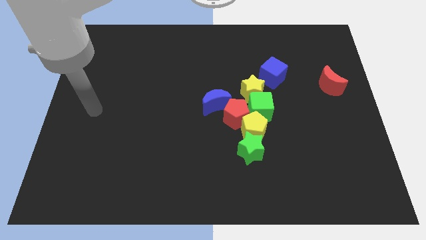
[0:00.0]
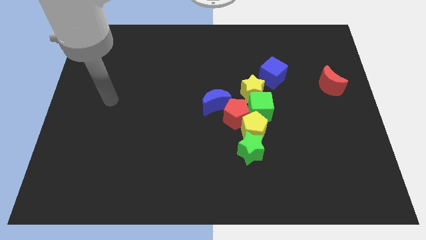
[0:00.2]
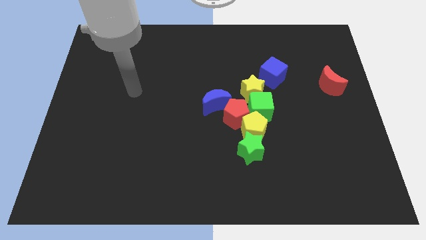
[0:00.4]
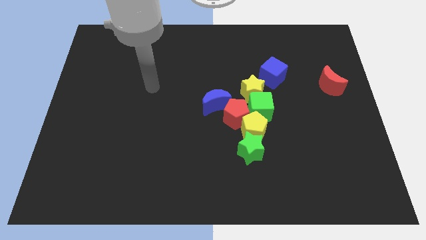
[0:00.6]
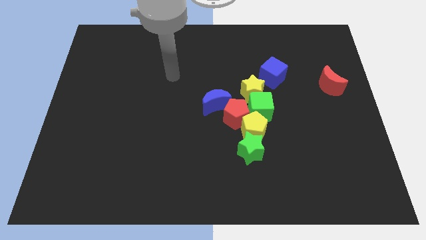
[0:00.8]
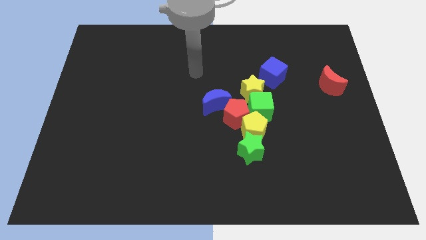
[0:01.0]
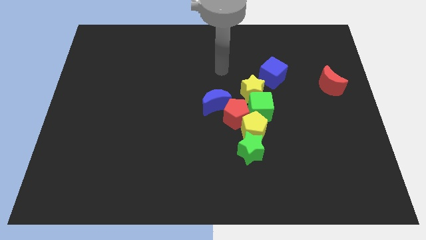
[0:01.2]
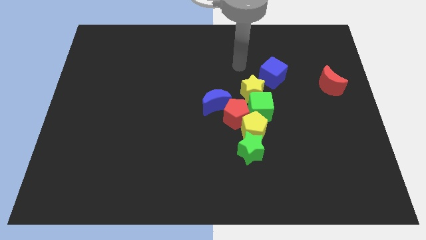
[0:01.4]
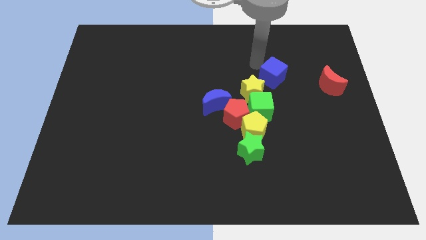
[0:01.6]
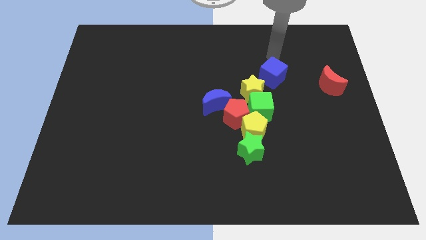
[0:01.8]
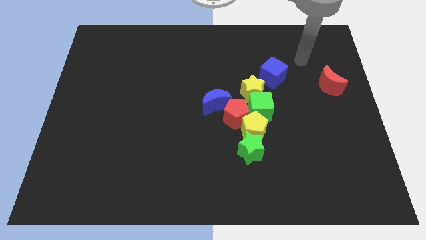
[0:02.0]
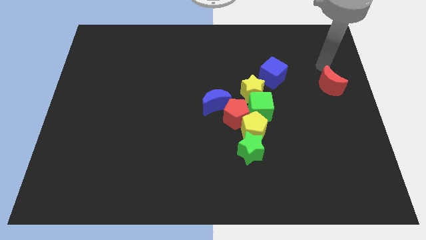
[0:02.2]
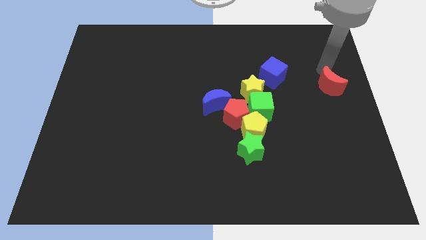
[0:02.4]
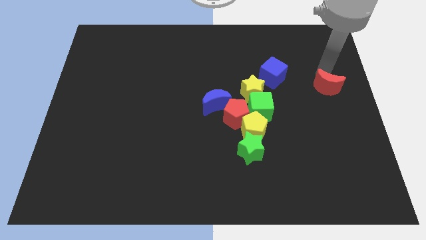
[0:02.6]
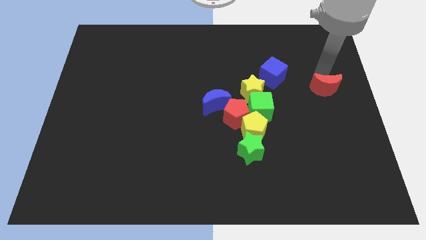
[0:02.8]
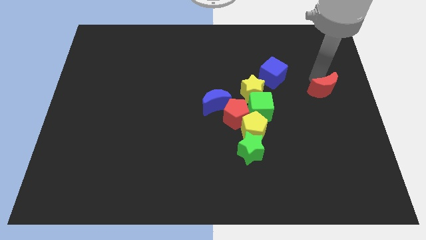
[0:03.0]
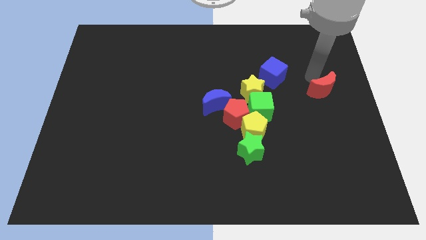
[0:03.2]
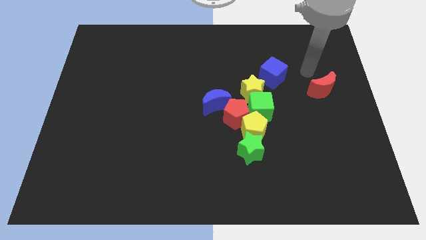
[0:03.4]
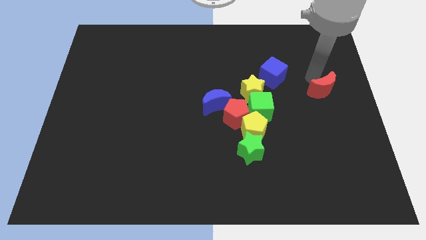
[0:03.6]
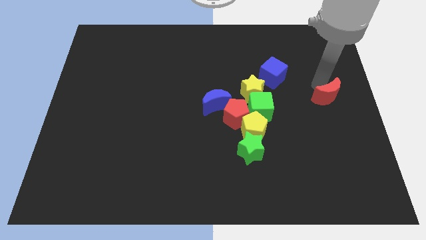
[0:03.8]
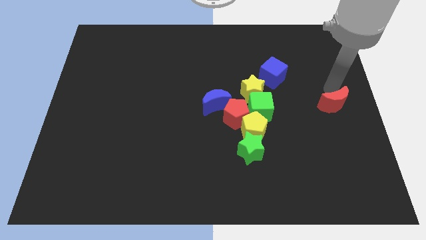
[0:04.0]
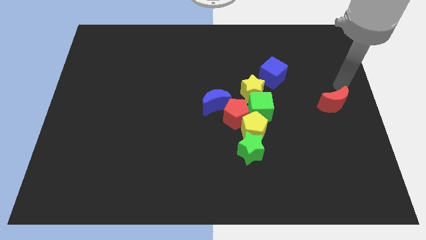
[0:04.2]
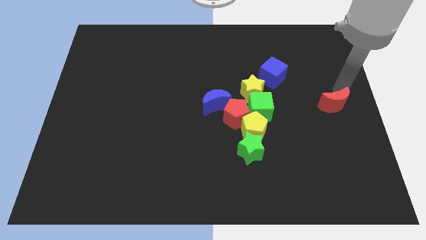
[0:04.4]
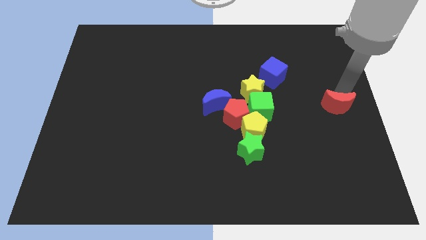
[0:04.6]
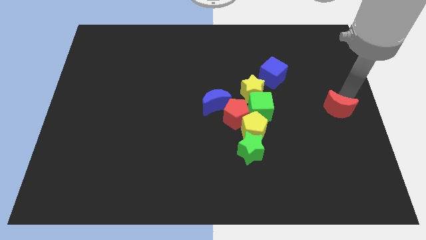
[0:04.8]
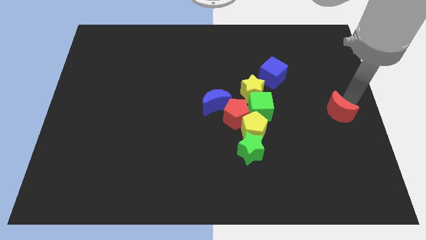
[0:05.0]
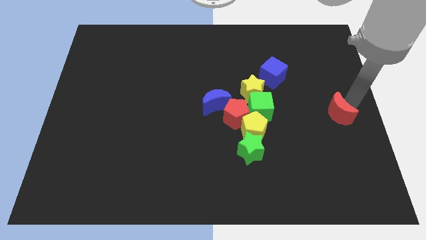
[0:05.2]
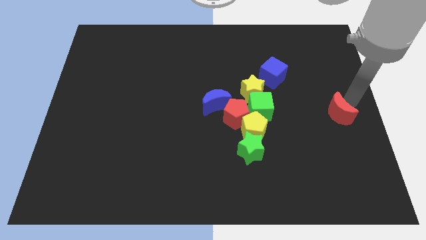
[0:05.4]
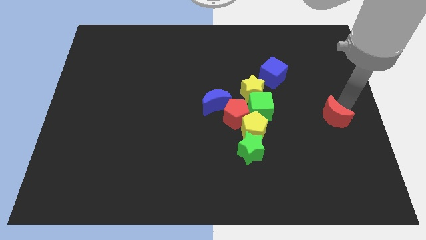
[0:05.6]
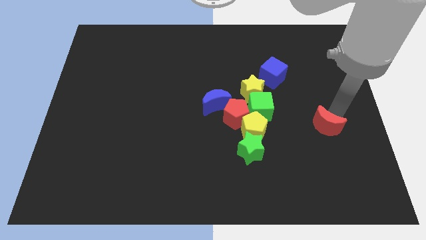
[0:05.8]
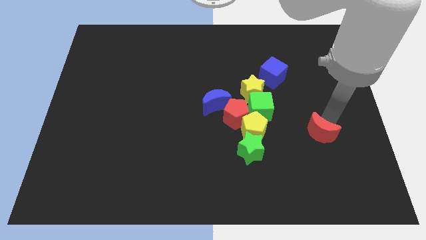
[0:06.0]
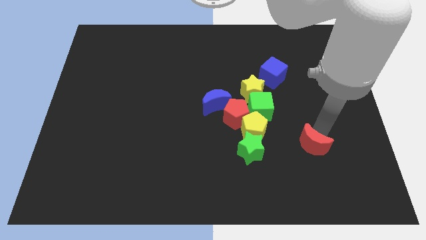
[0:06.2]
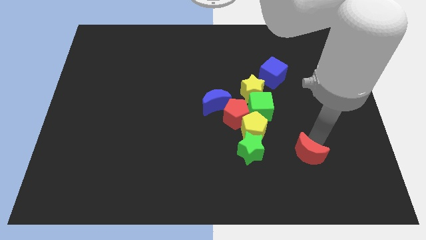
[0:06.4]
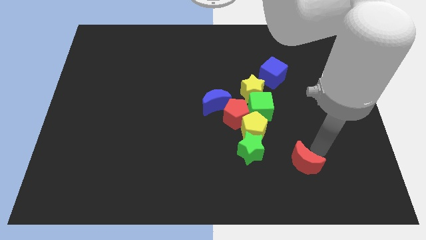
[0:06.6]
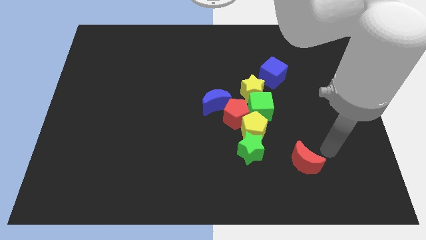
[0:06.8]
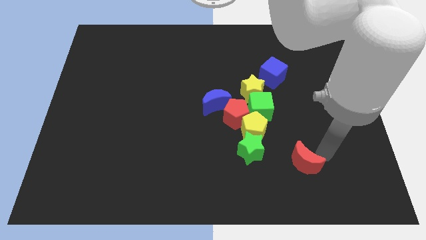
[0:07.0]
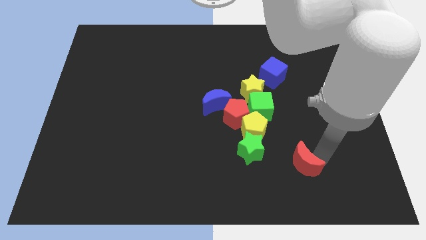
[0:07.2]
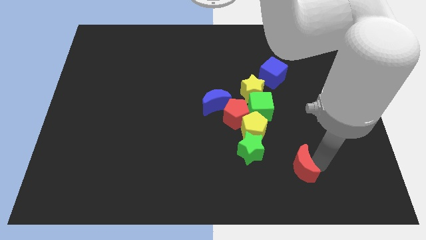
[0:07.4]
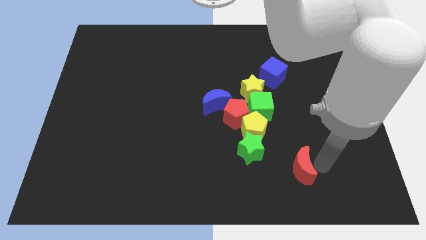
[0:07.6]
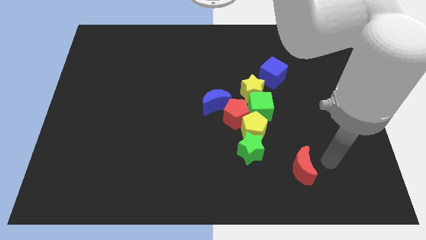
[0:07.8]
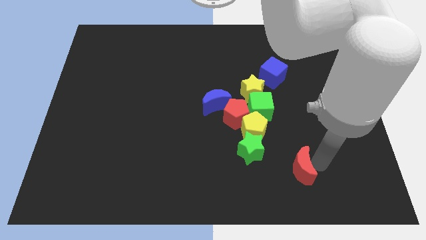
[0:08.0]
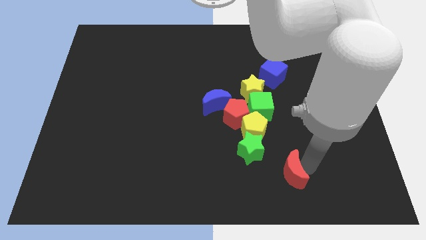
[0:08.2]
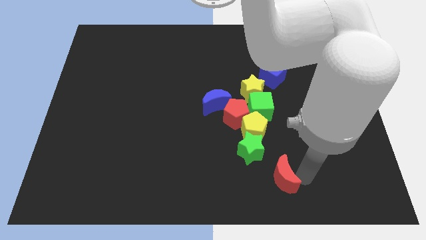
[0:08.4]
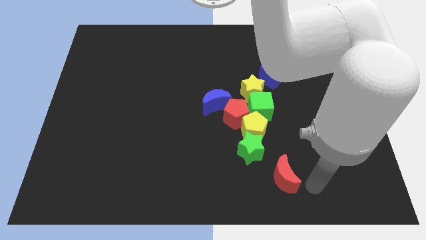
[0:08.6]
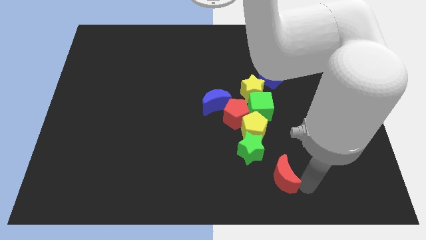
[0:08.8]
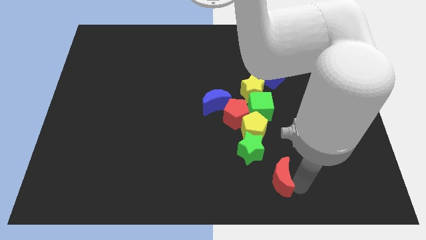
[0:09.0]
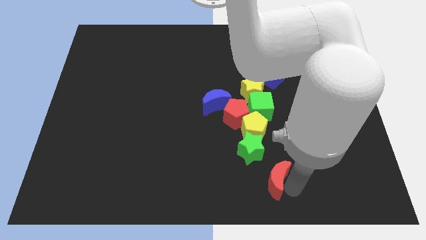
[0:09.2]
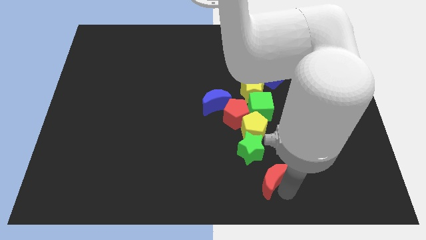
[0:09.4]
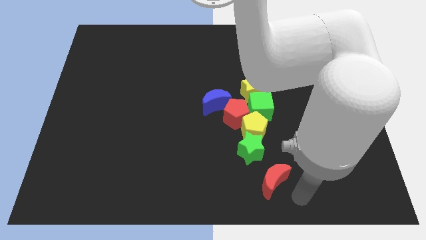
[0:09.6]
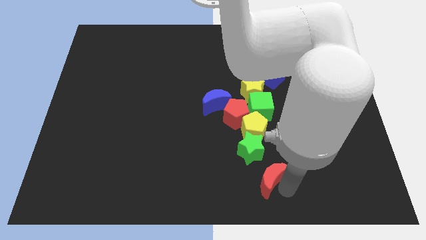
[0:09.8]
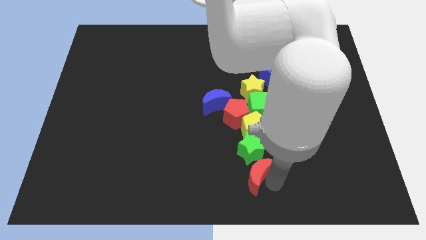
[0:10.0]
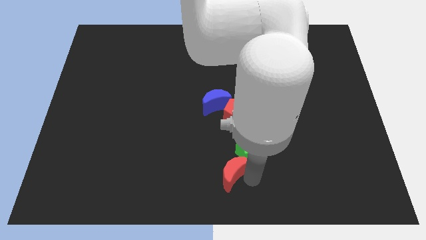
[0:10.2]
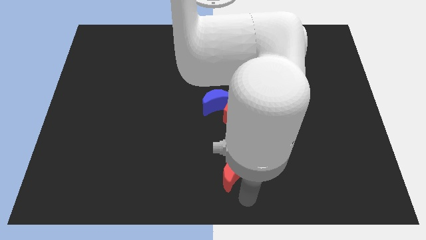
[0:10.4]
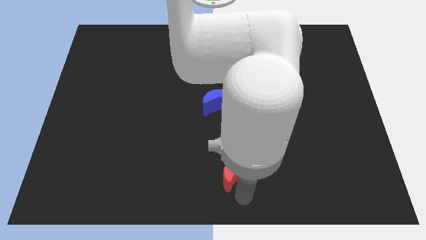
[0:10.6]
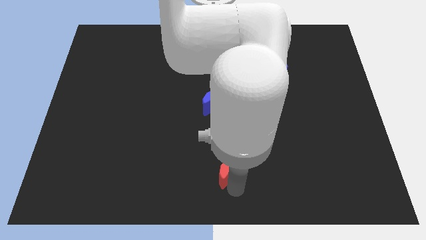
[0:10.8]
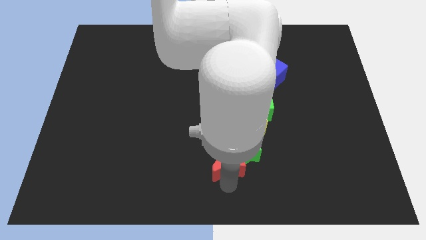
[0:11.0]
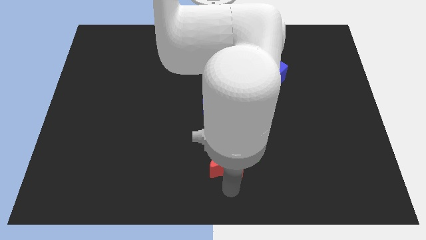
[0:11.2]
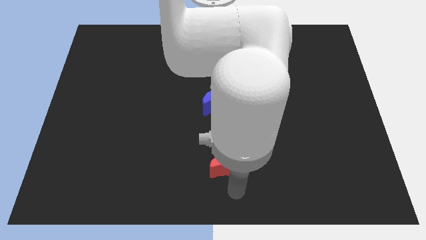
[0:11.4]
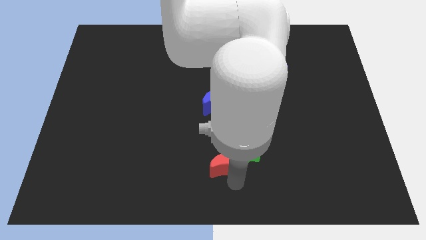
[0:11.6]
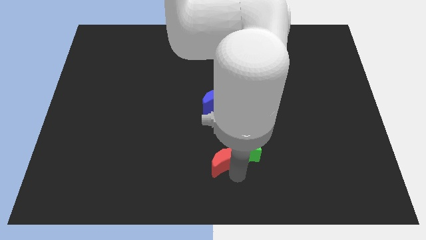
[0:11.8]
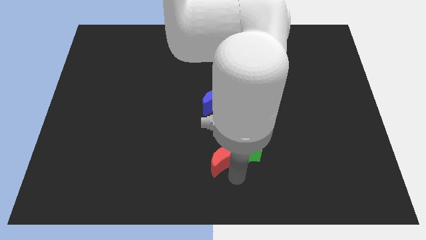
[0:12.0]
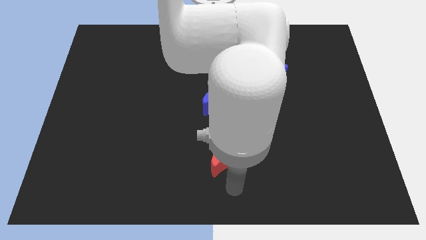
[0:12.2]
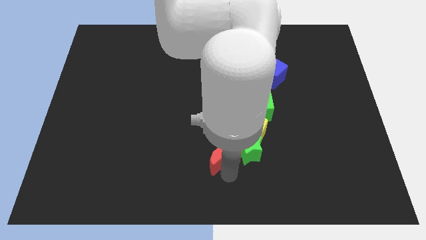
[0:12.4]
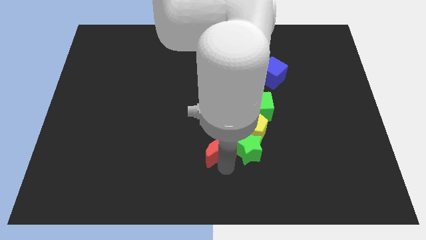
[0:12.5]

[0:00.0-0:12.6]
put the red moon to the bottom left of the red pentagon

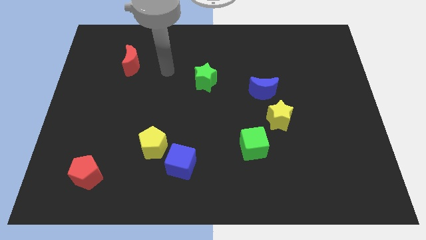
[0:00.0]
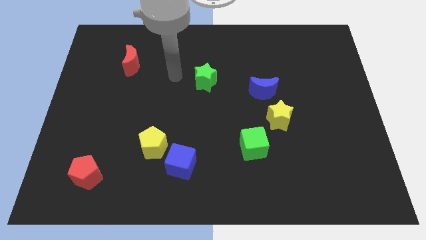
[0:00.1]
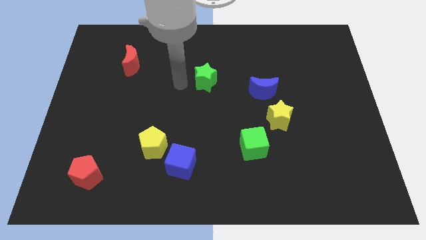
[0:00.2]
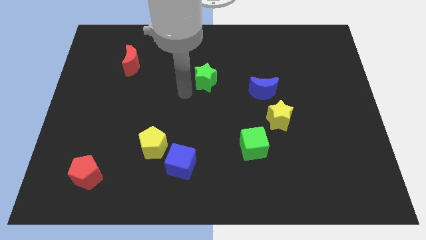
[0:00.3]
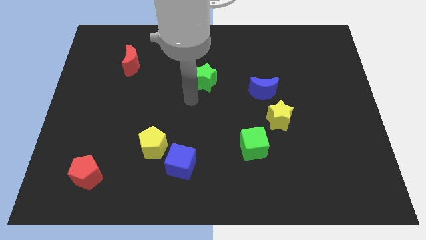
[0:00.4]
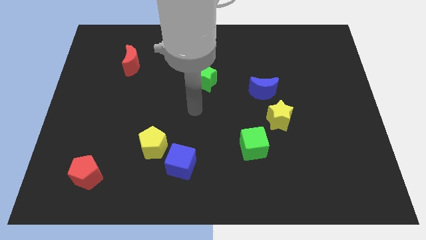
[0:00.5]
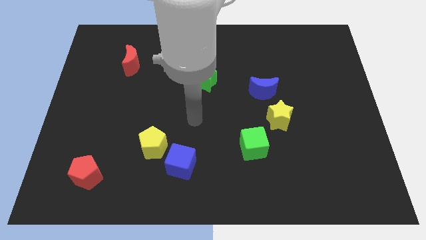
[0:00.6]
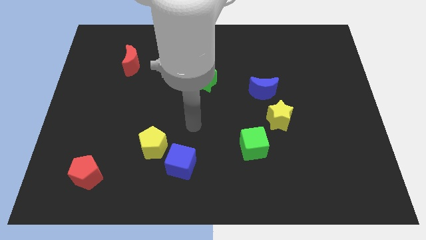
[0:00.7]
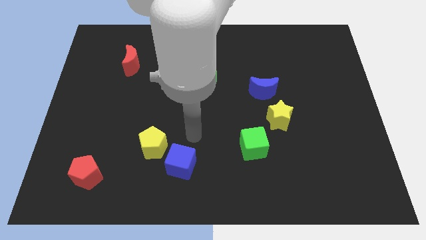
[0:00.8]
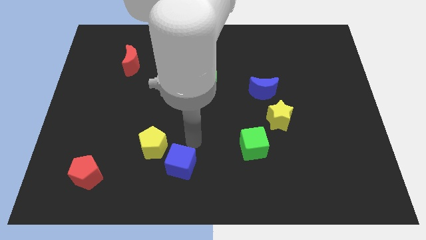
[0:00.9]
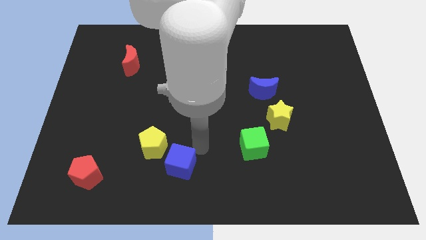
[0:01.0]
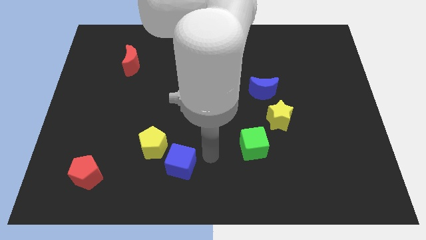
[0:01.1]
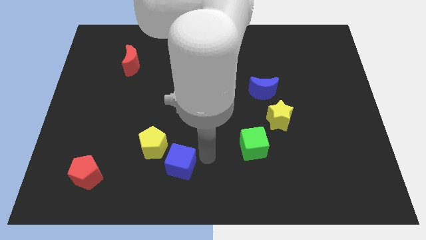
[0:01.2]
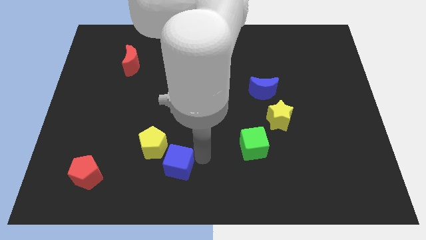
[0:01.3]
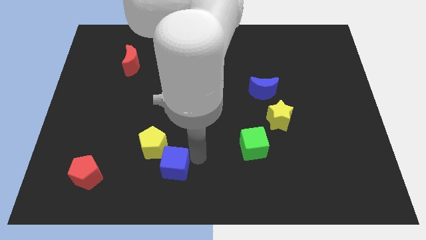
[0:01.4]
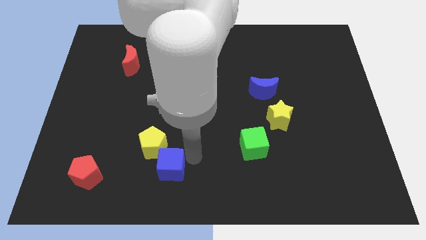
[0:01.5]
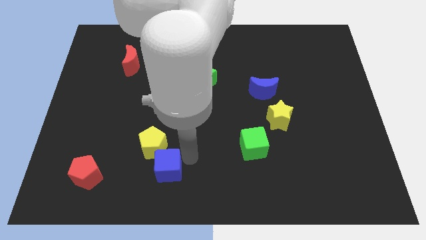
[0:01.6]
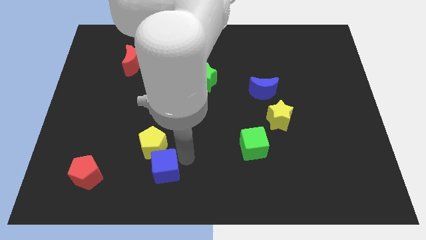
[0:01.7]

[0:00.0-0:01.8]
put the blue cube to the right side of the red pentagon
